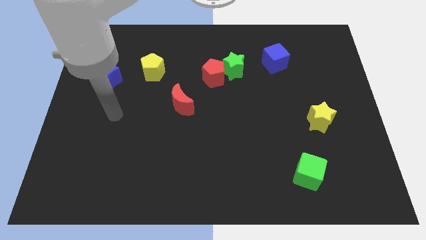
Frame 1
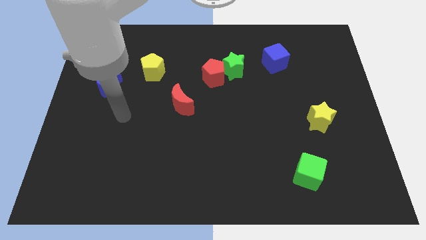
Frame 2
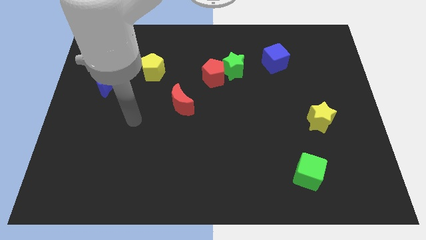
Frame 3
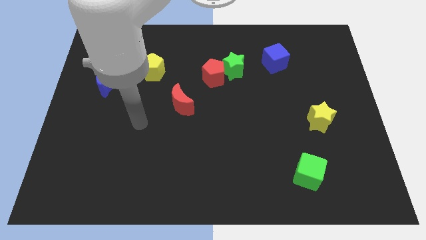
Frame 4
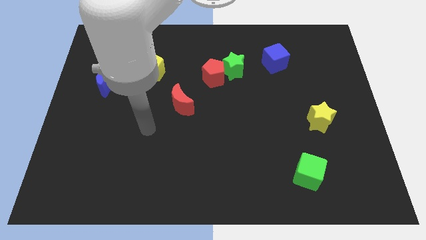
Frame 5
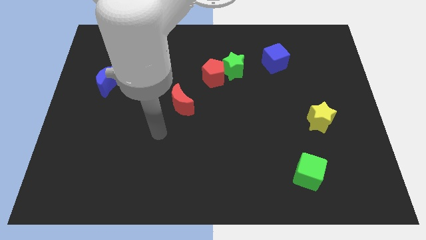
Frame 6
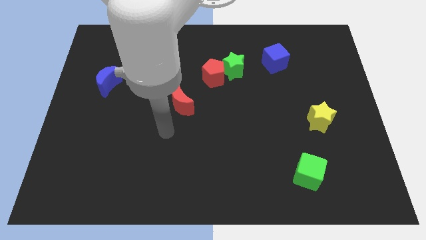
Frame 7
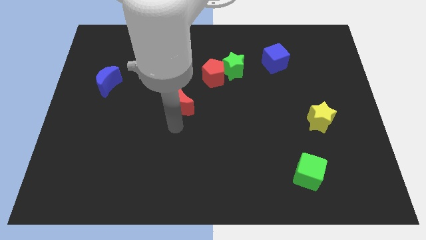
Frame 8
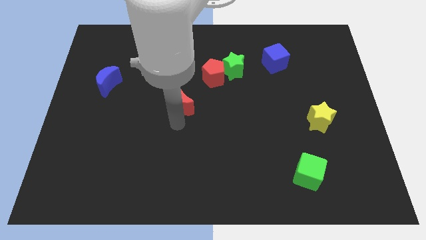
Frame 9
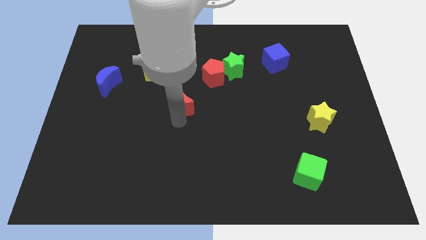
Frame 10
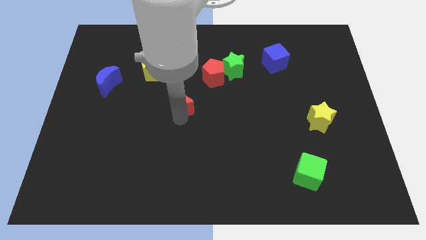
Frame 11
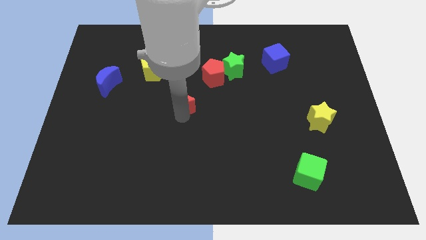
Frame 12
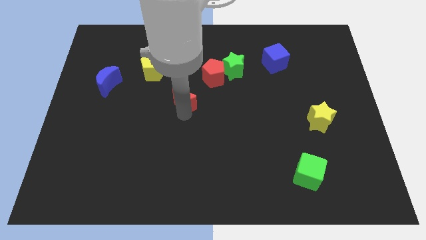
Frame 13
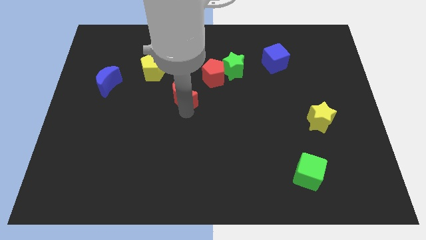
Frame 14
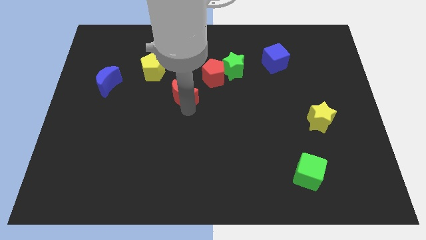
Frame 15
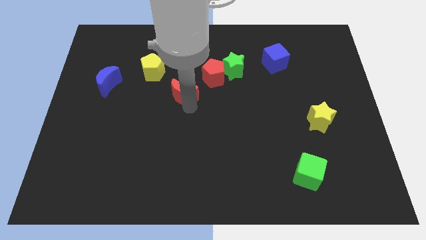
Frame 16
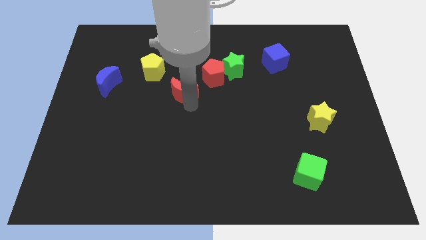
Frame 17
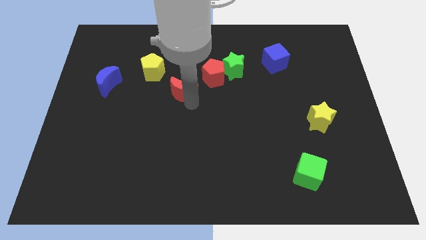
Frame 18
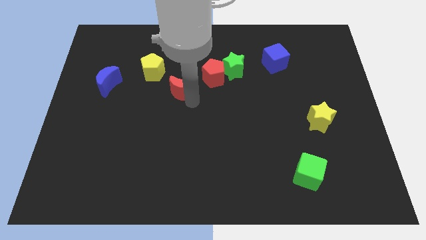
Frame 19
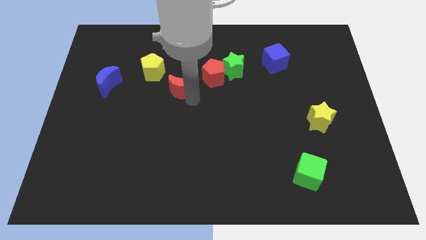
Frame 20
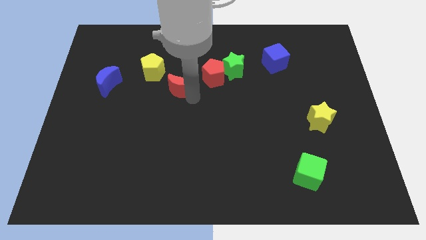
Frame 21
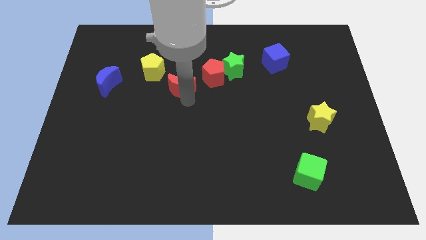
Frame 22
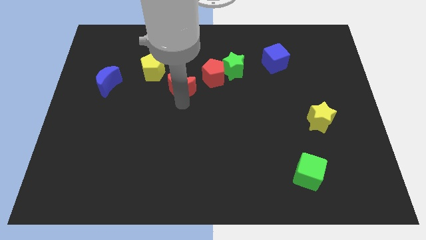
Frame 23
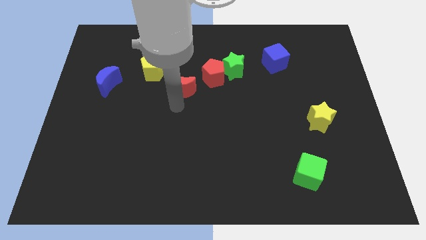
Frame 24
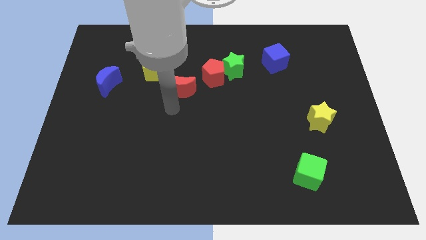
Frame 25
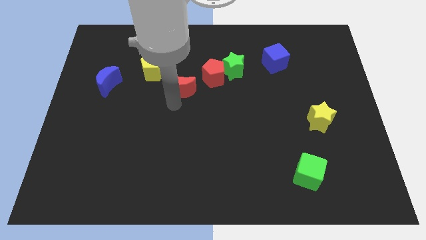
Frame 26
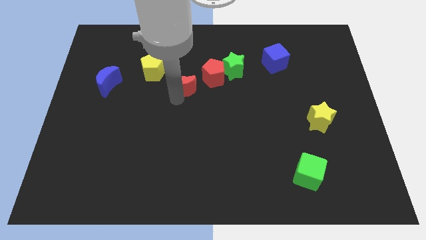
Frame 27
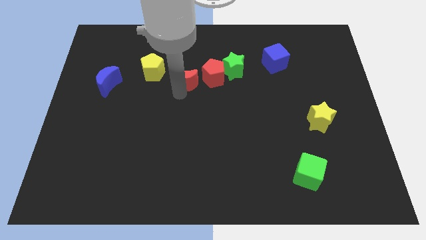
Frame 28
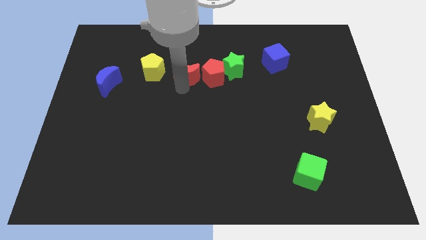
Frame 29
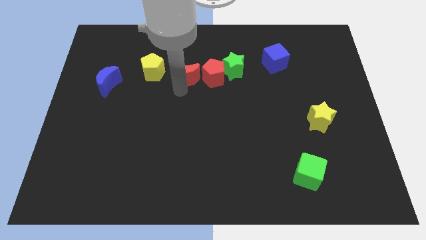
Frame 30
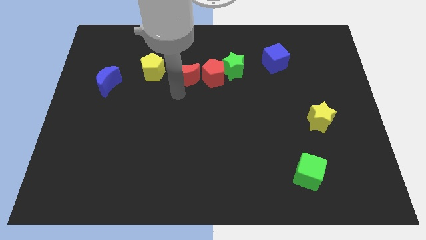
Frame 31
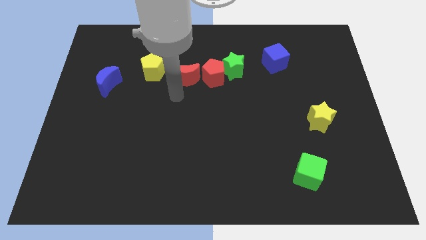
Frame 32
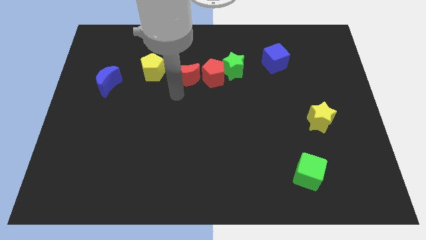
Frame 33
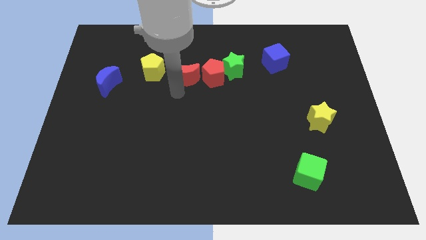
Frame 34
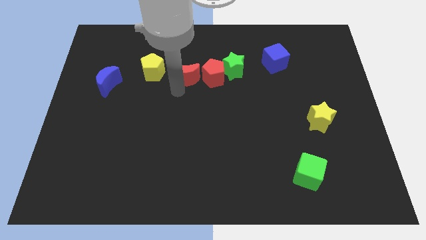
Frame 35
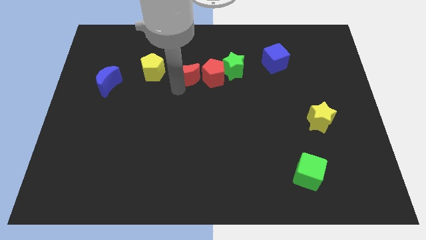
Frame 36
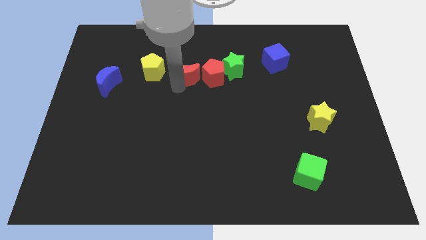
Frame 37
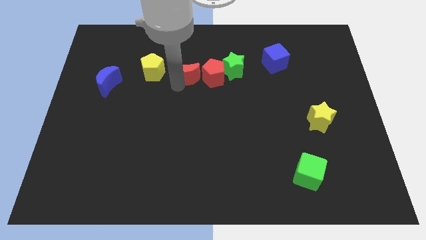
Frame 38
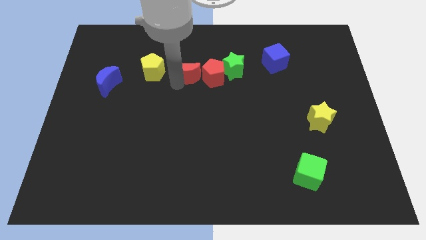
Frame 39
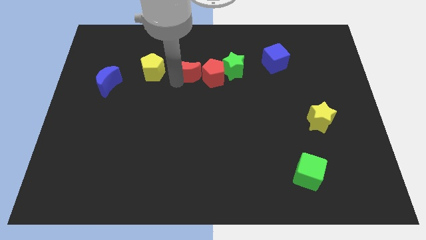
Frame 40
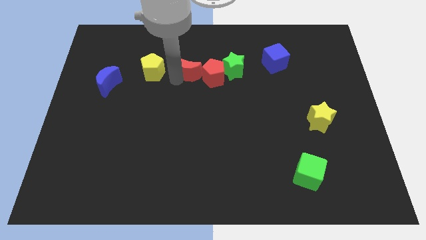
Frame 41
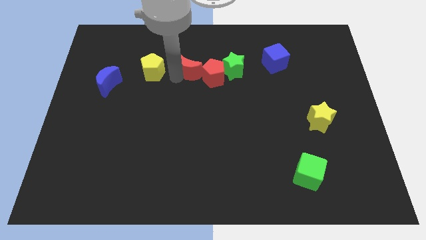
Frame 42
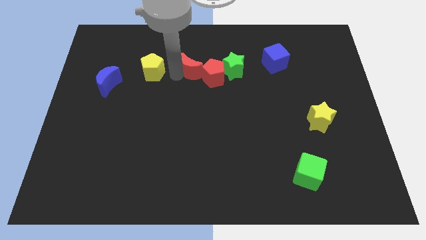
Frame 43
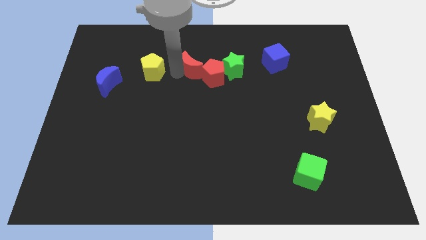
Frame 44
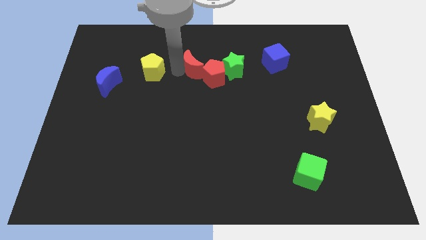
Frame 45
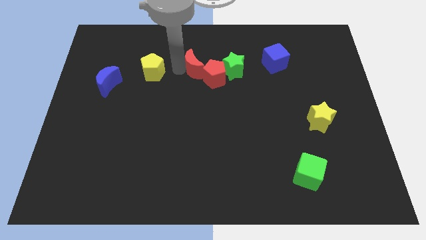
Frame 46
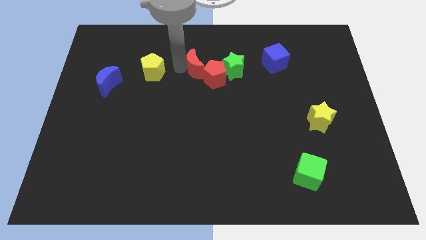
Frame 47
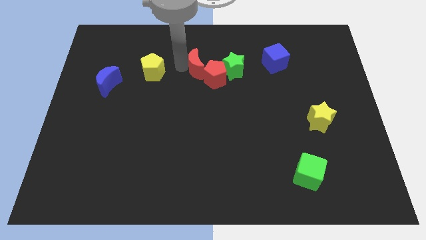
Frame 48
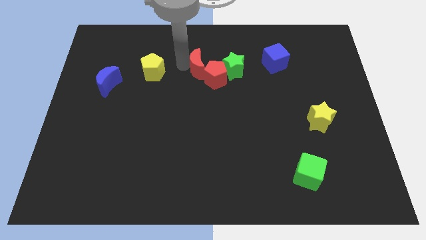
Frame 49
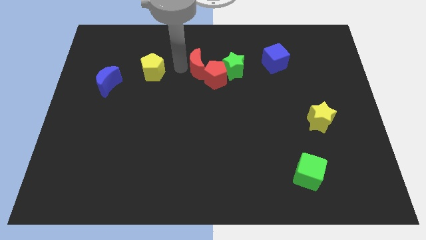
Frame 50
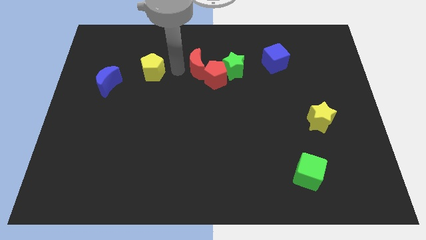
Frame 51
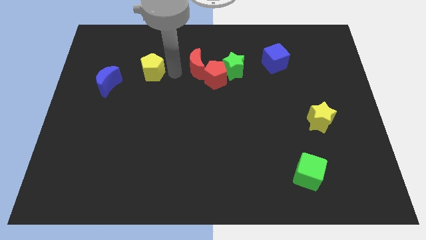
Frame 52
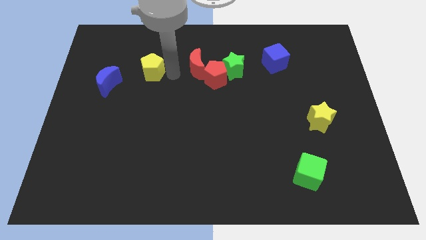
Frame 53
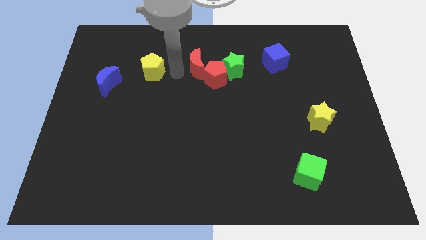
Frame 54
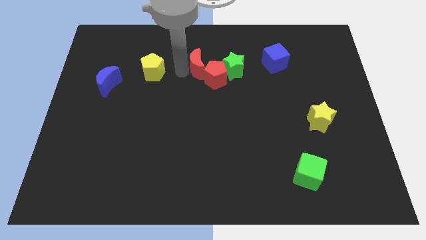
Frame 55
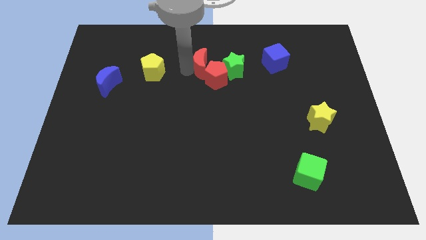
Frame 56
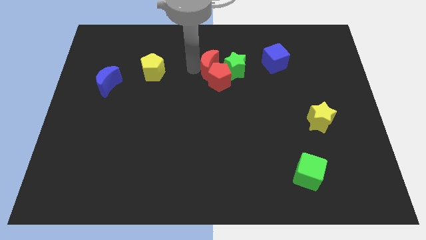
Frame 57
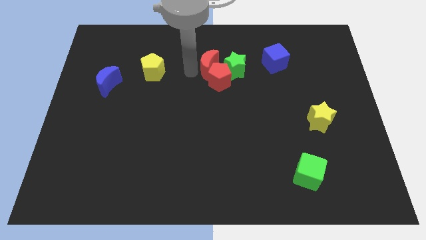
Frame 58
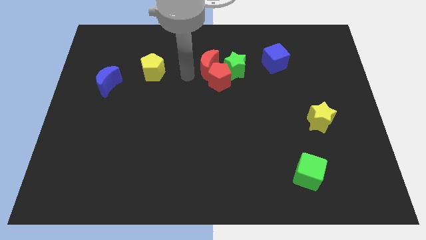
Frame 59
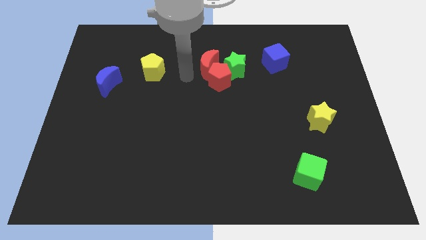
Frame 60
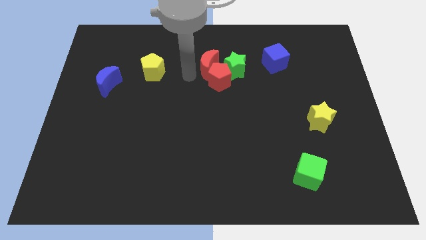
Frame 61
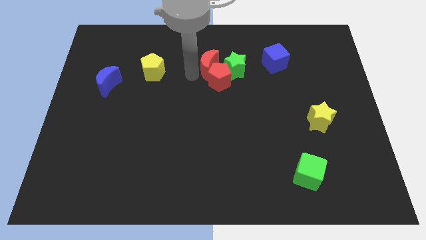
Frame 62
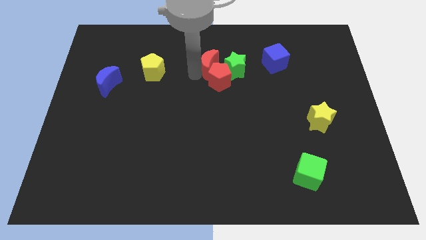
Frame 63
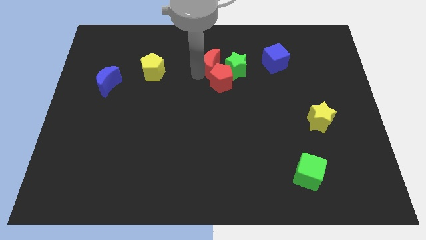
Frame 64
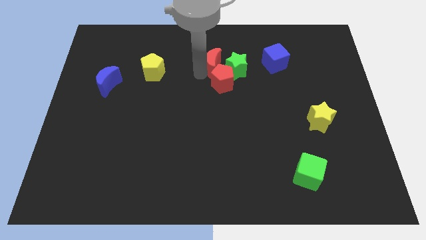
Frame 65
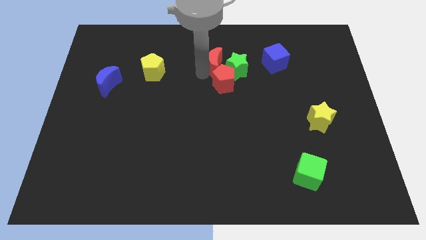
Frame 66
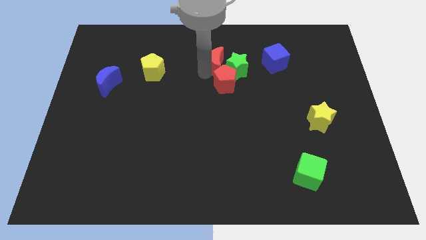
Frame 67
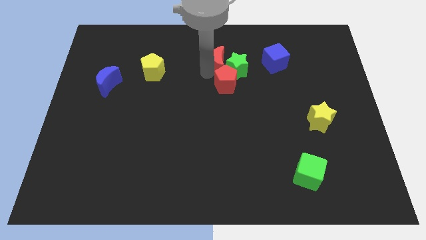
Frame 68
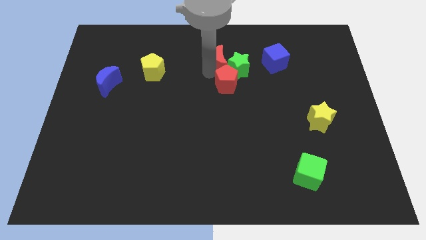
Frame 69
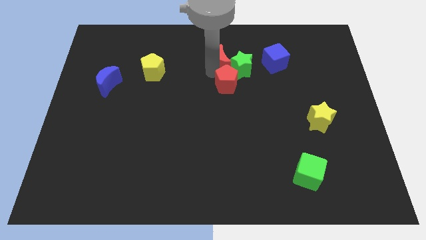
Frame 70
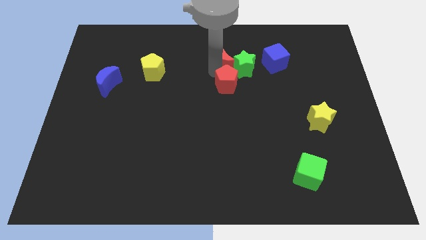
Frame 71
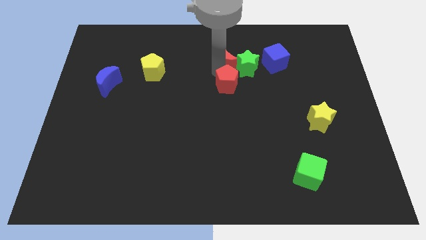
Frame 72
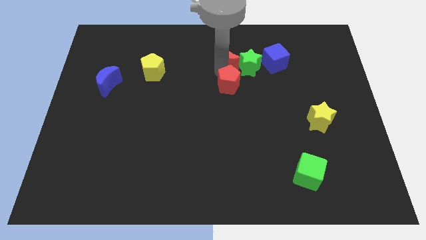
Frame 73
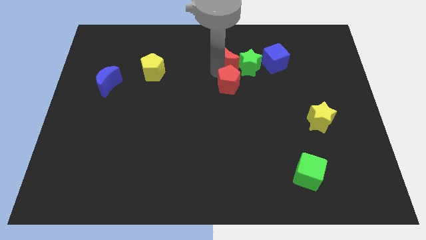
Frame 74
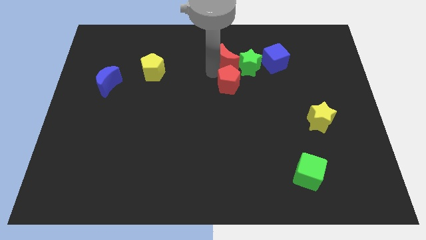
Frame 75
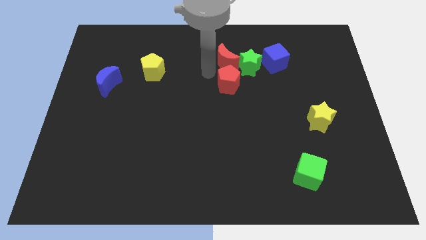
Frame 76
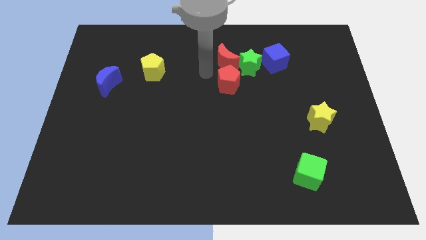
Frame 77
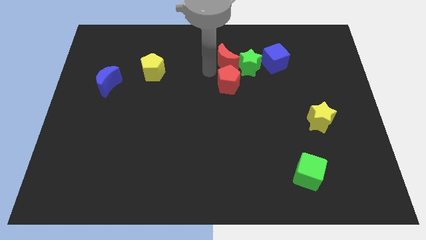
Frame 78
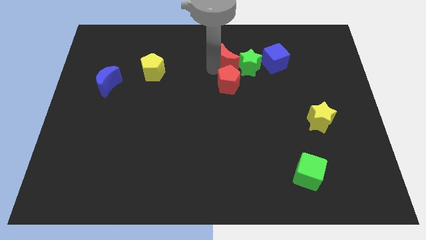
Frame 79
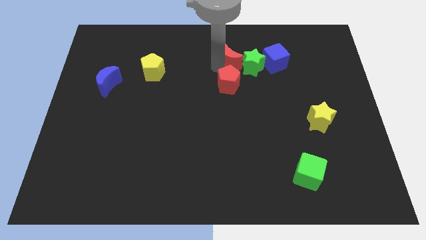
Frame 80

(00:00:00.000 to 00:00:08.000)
slide the red moon to the top right side of the red pentagon
